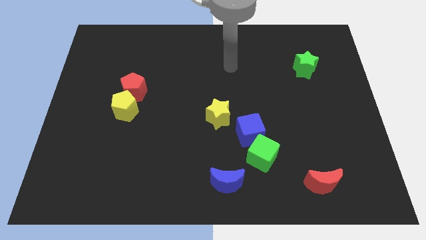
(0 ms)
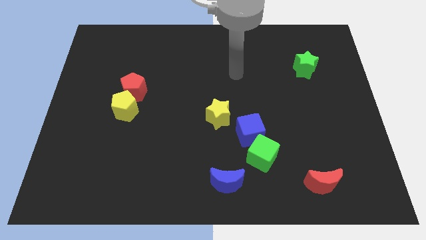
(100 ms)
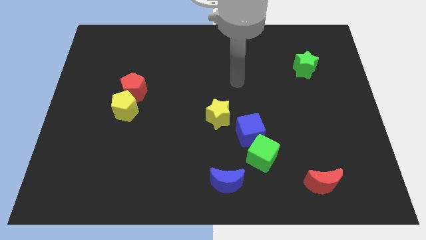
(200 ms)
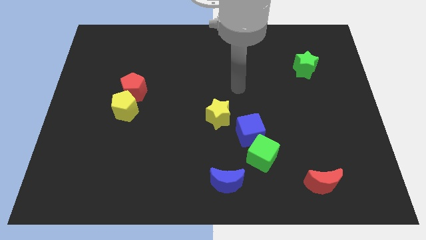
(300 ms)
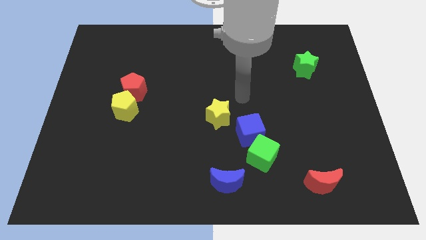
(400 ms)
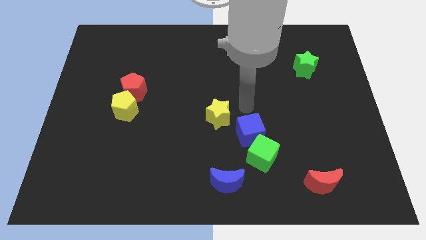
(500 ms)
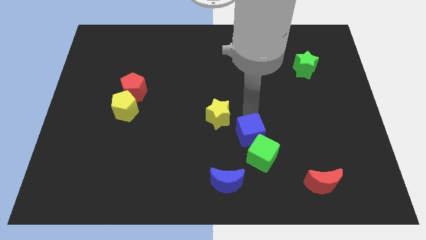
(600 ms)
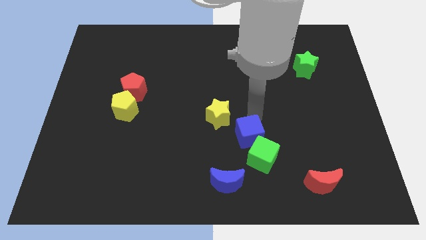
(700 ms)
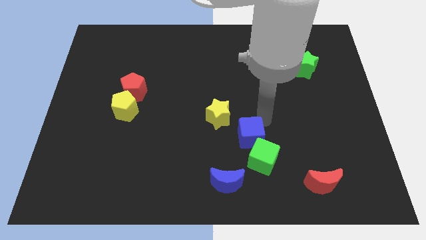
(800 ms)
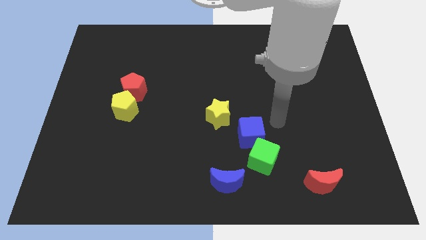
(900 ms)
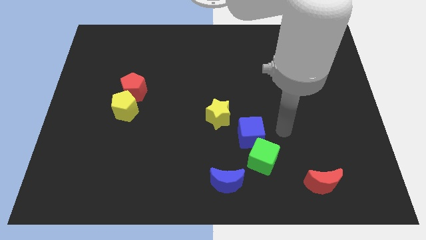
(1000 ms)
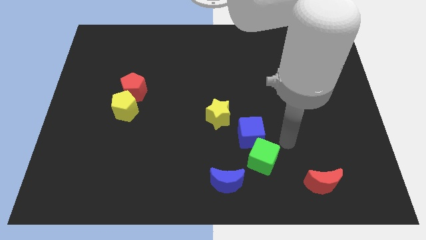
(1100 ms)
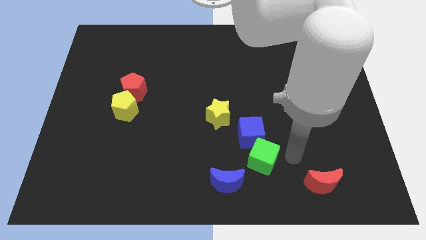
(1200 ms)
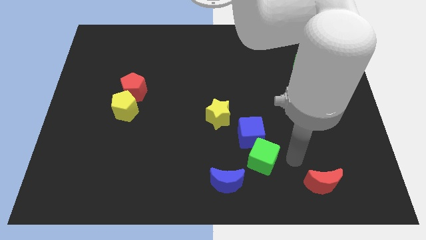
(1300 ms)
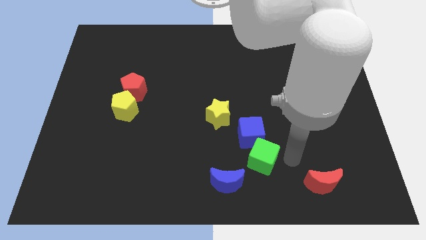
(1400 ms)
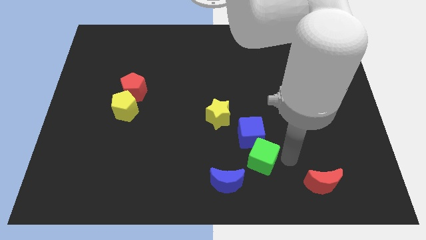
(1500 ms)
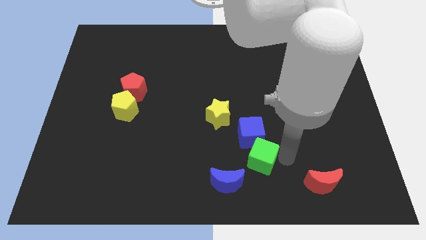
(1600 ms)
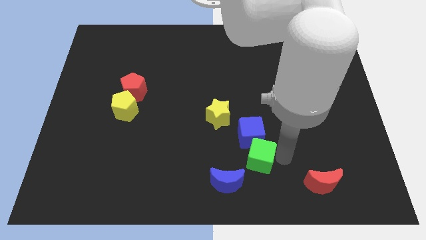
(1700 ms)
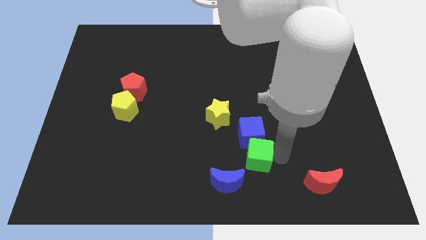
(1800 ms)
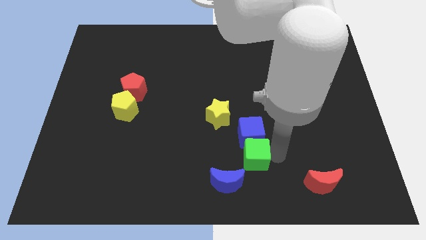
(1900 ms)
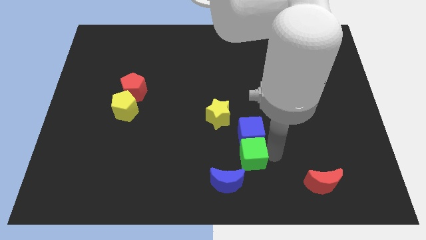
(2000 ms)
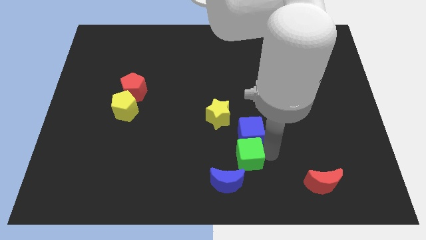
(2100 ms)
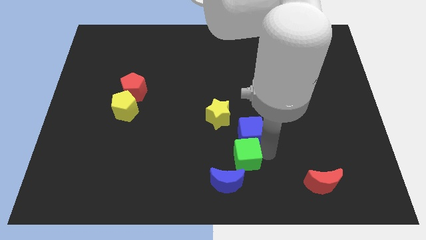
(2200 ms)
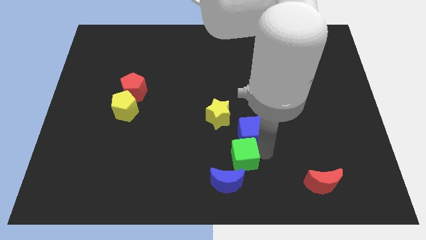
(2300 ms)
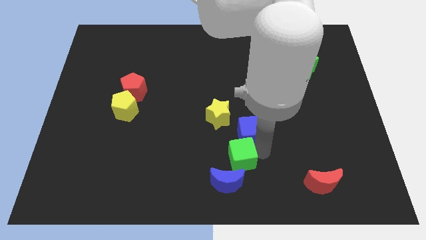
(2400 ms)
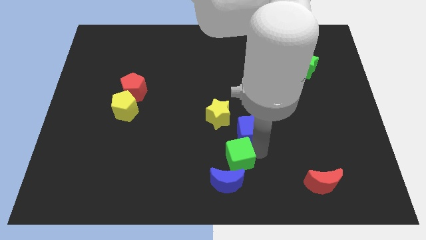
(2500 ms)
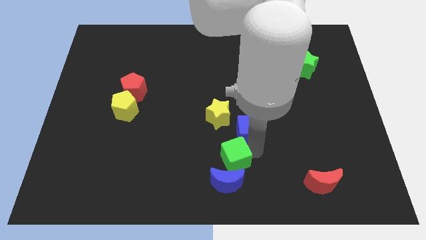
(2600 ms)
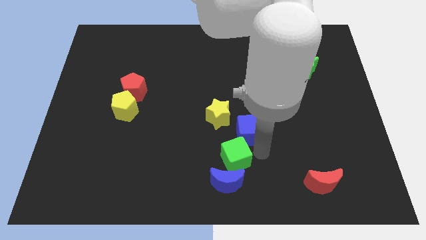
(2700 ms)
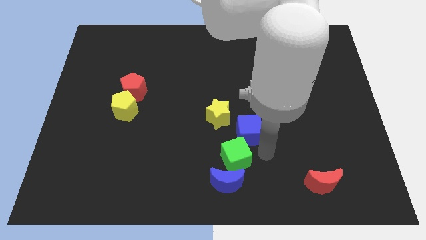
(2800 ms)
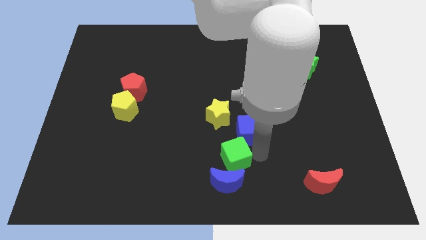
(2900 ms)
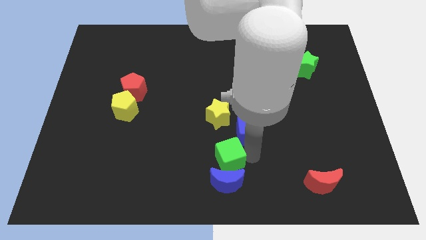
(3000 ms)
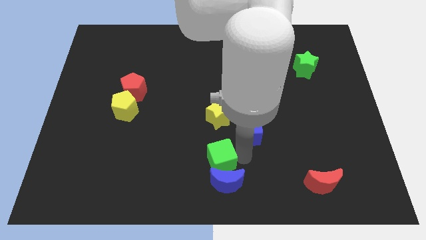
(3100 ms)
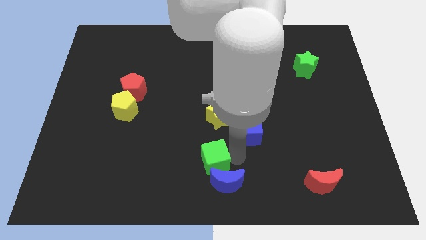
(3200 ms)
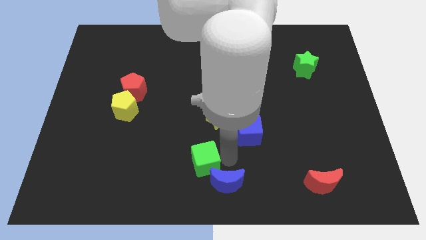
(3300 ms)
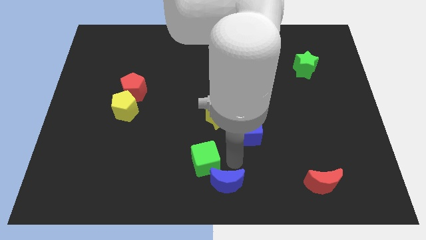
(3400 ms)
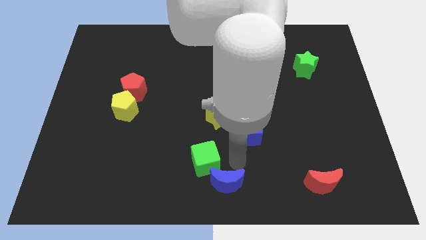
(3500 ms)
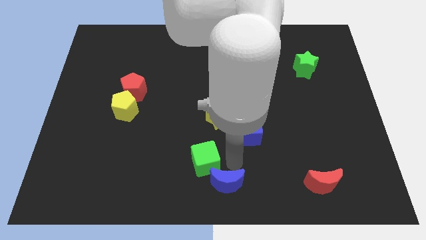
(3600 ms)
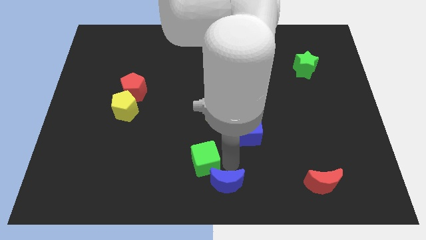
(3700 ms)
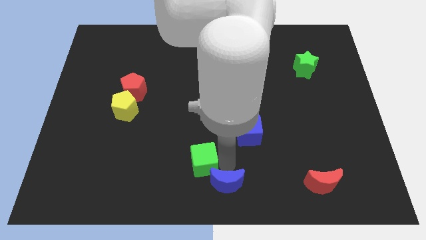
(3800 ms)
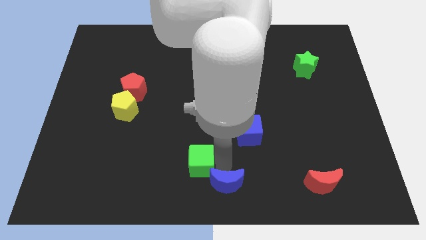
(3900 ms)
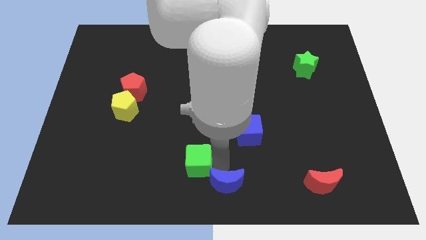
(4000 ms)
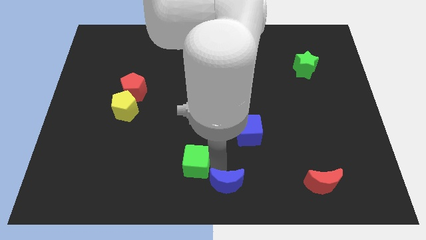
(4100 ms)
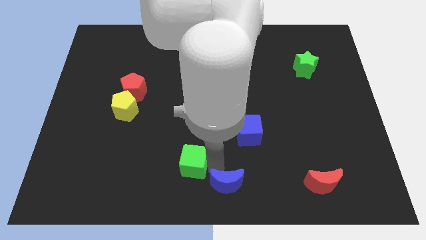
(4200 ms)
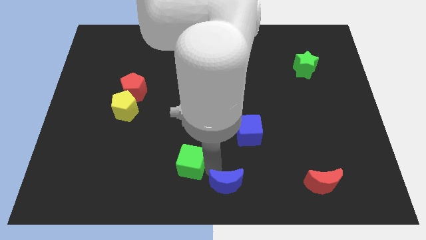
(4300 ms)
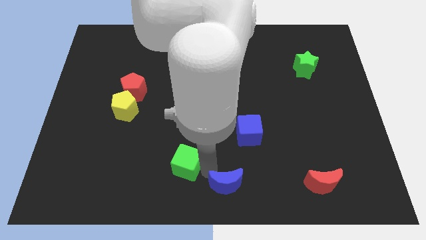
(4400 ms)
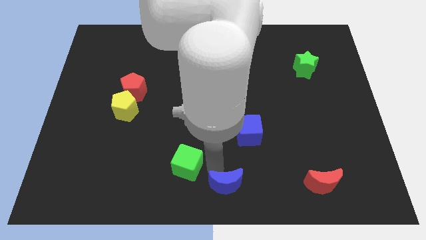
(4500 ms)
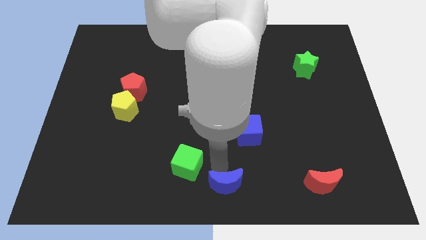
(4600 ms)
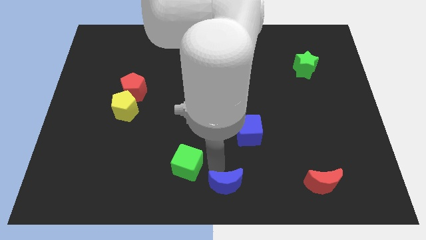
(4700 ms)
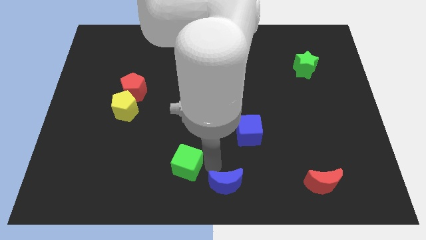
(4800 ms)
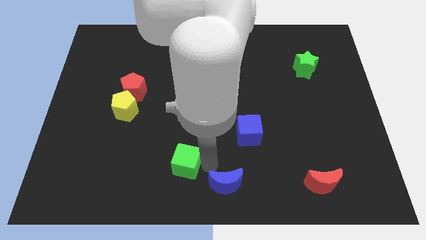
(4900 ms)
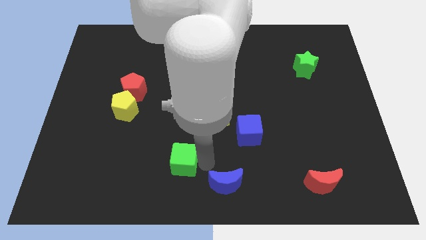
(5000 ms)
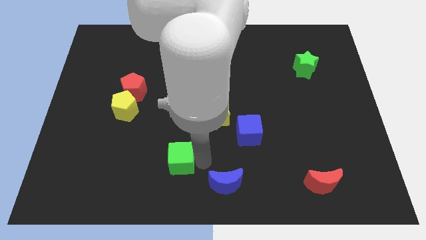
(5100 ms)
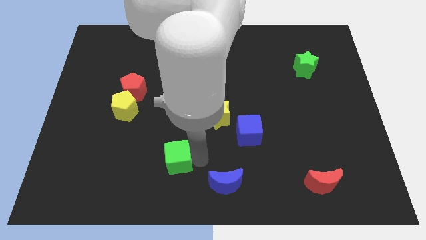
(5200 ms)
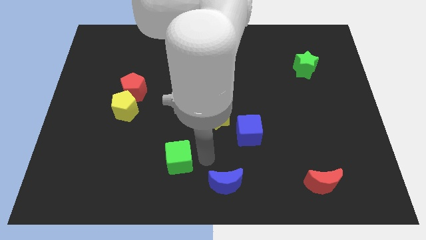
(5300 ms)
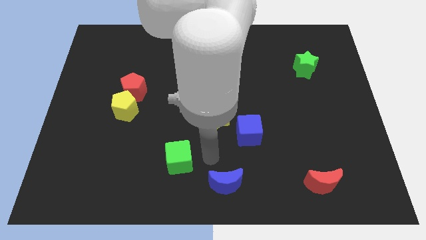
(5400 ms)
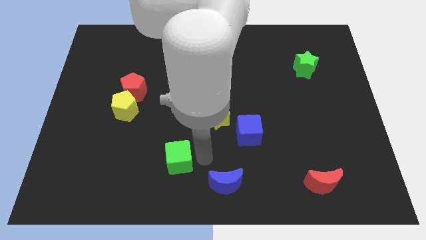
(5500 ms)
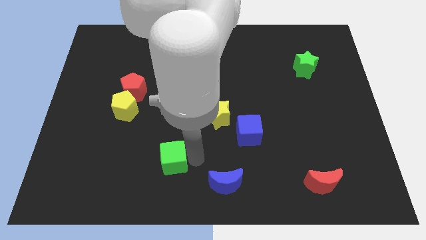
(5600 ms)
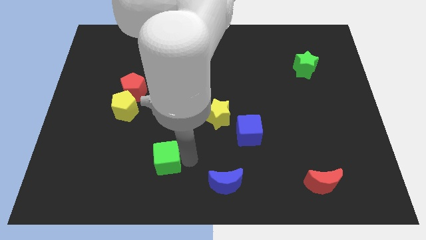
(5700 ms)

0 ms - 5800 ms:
move the green cube to the left

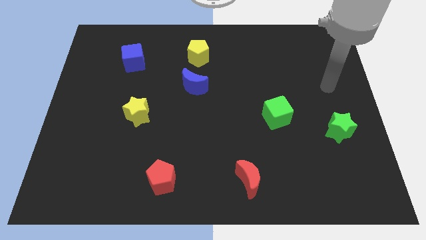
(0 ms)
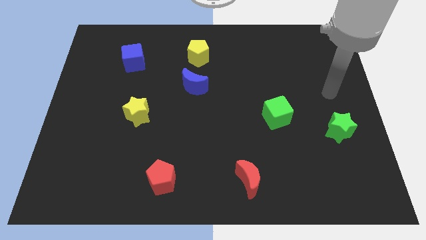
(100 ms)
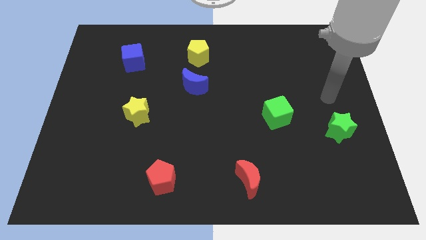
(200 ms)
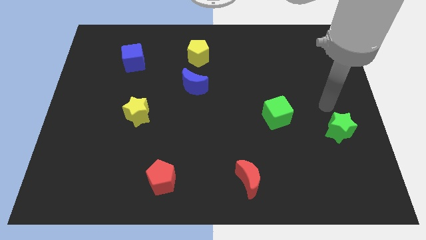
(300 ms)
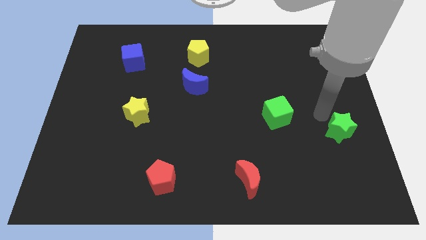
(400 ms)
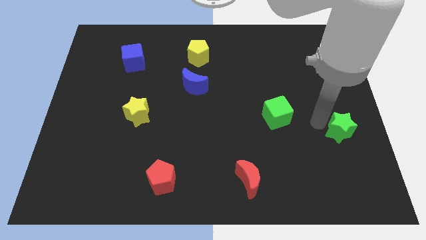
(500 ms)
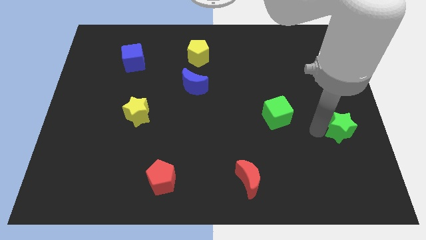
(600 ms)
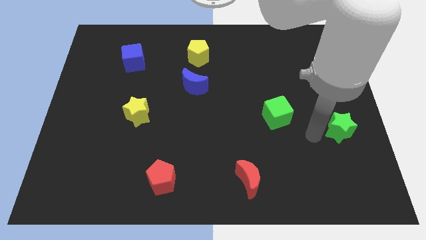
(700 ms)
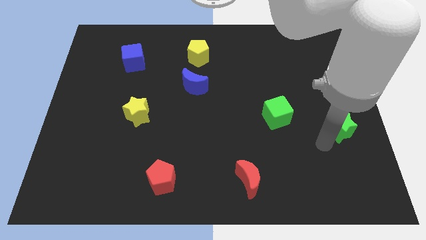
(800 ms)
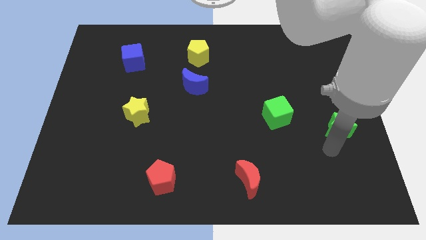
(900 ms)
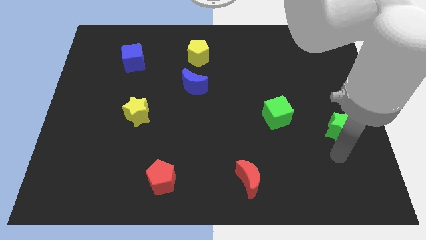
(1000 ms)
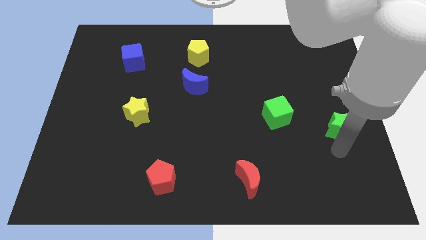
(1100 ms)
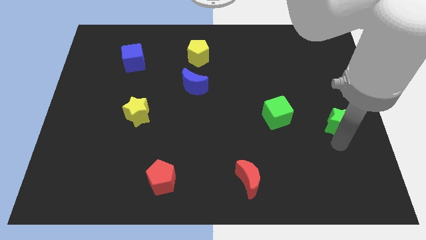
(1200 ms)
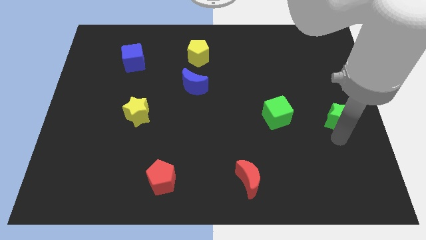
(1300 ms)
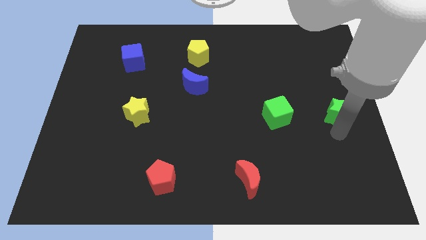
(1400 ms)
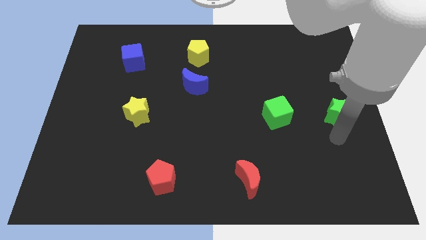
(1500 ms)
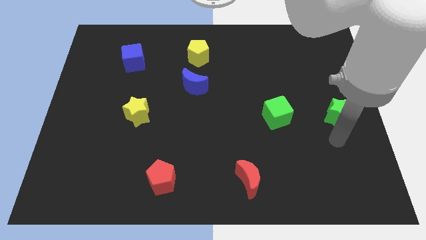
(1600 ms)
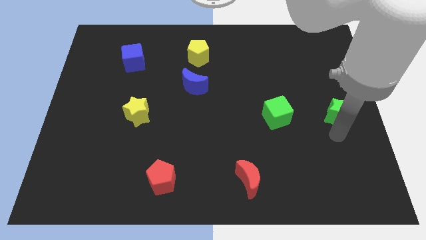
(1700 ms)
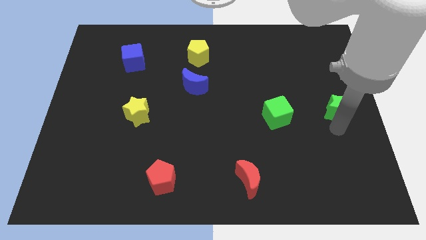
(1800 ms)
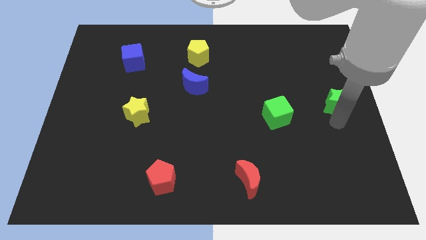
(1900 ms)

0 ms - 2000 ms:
slide the green star a little bit upwards
